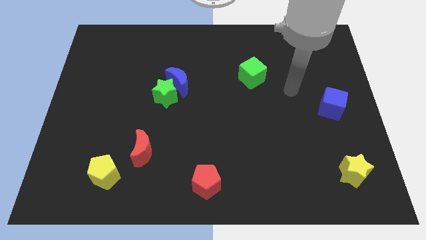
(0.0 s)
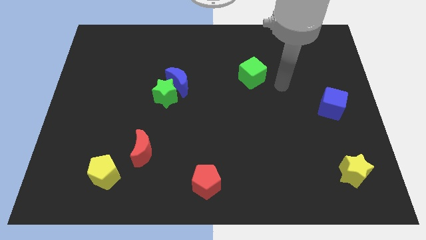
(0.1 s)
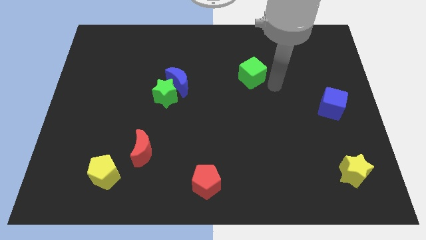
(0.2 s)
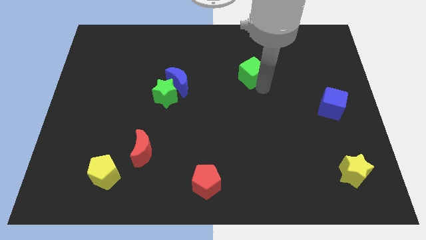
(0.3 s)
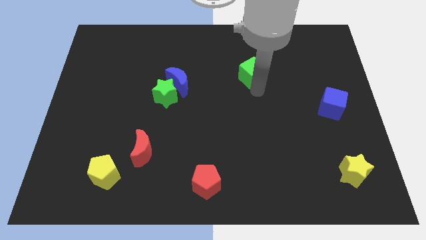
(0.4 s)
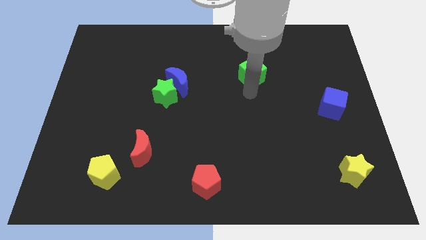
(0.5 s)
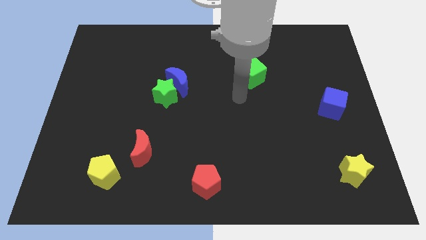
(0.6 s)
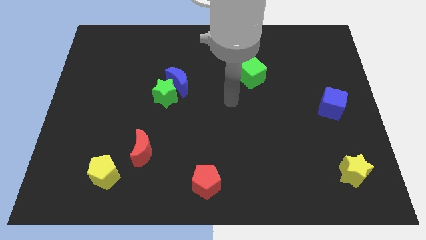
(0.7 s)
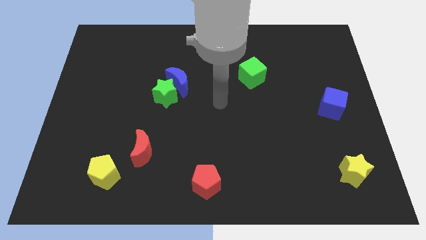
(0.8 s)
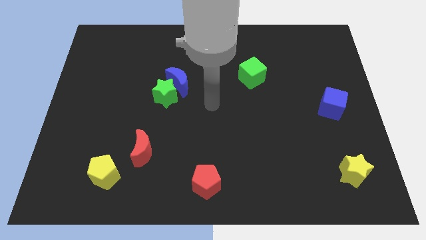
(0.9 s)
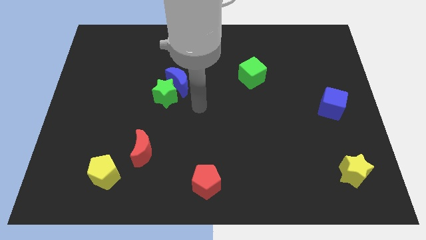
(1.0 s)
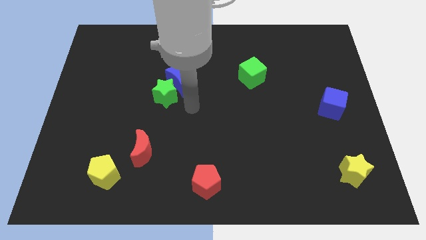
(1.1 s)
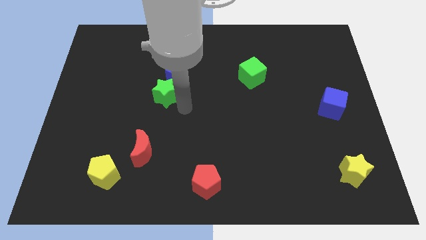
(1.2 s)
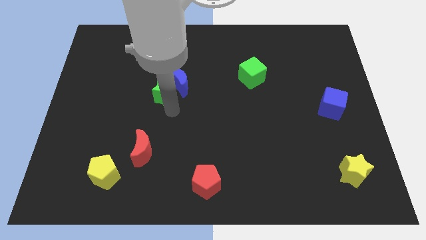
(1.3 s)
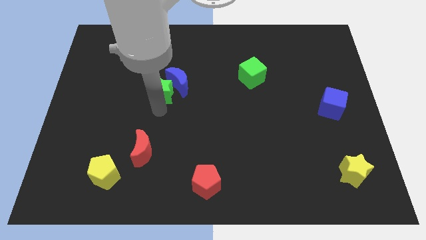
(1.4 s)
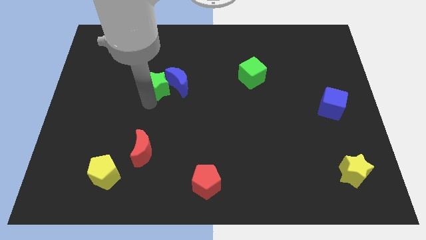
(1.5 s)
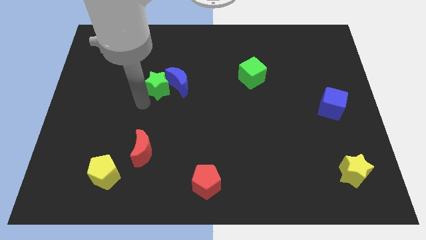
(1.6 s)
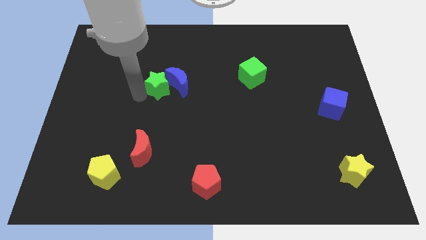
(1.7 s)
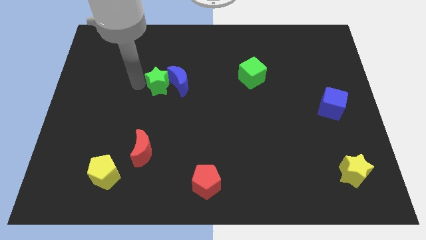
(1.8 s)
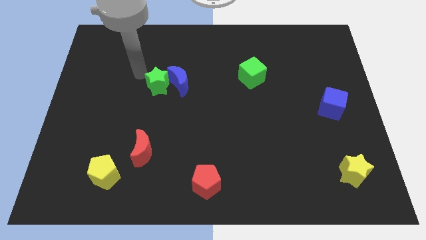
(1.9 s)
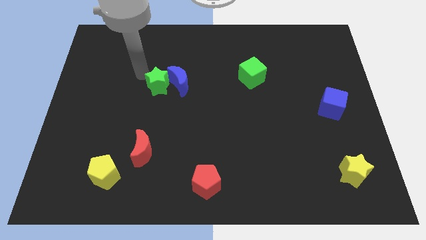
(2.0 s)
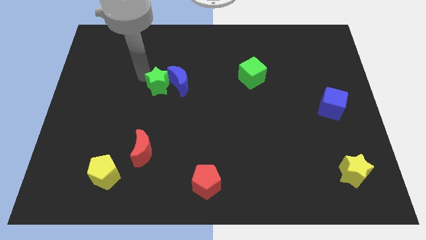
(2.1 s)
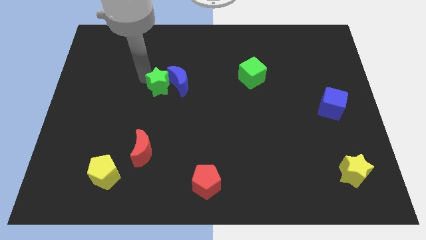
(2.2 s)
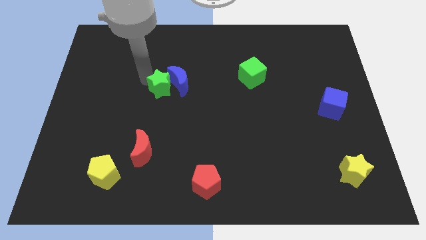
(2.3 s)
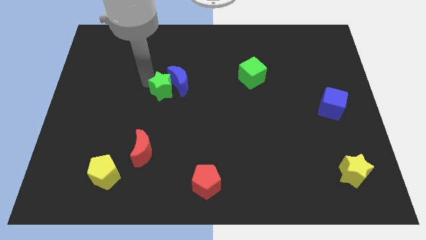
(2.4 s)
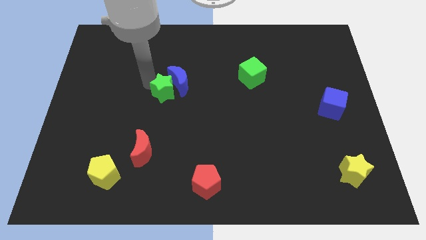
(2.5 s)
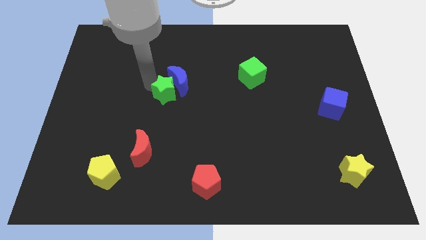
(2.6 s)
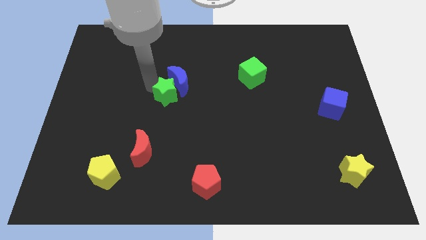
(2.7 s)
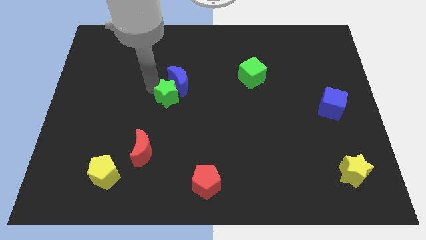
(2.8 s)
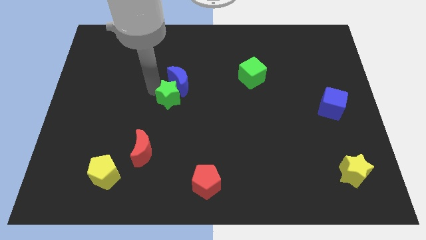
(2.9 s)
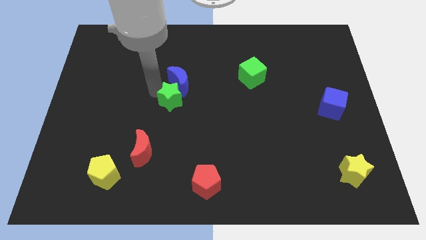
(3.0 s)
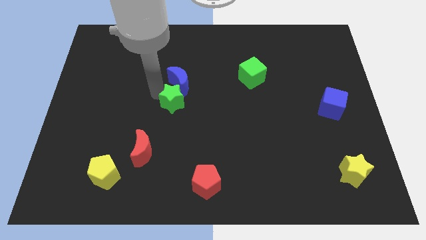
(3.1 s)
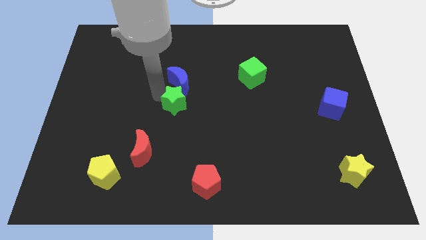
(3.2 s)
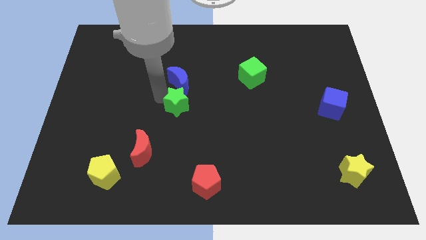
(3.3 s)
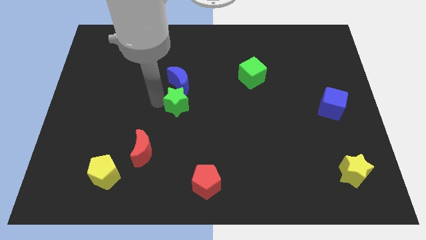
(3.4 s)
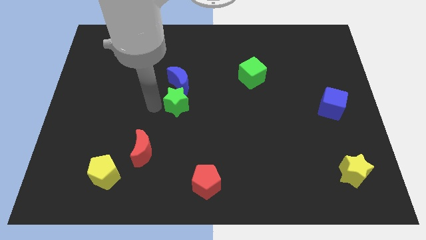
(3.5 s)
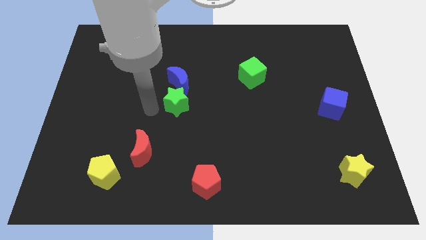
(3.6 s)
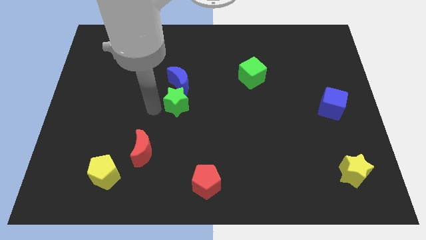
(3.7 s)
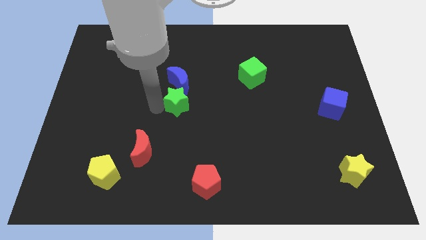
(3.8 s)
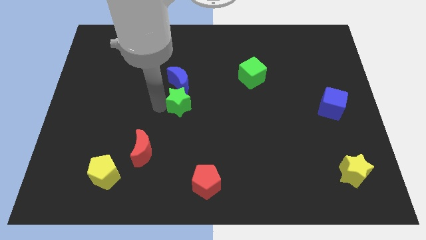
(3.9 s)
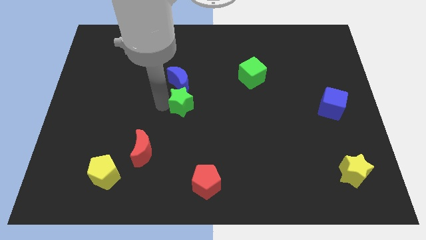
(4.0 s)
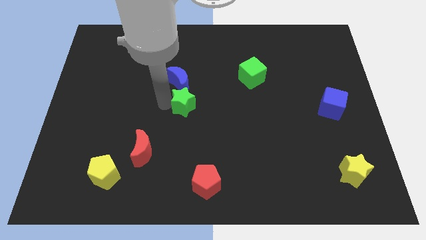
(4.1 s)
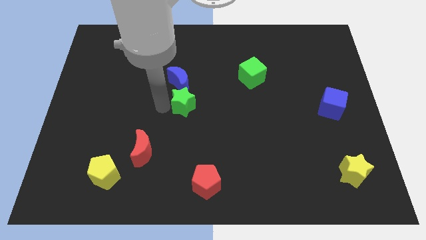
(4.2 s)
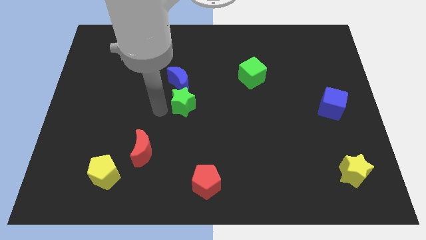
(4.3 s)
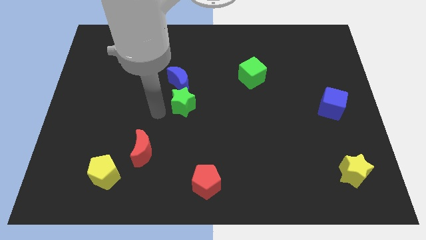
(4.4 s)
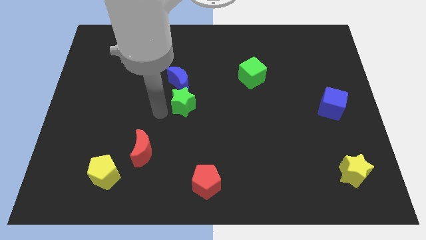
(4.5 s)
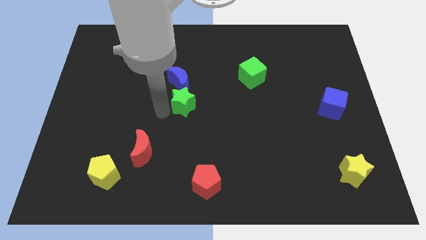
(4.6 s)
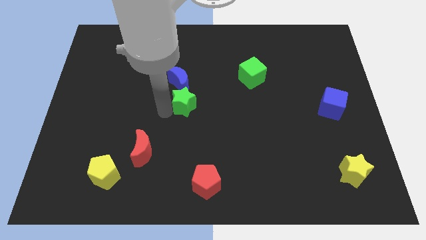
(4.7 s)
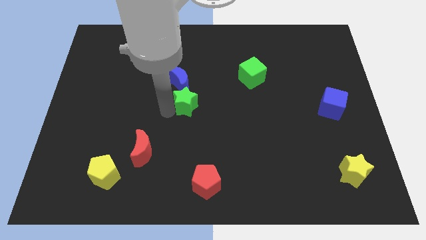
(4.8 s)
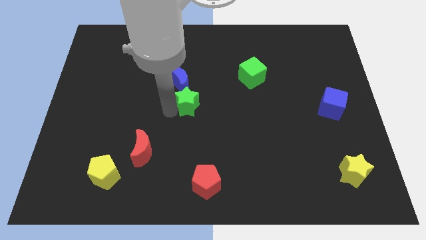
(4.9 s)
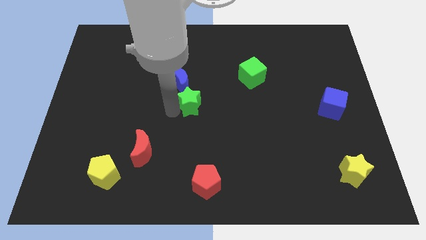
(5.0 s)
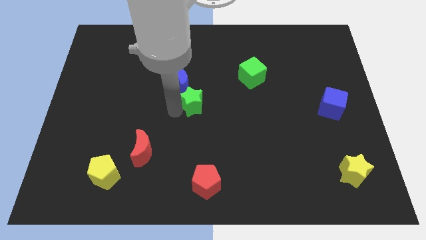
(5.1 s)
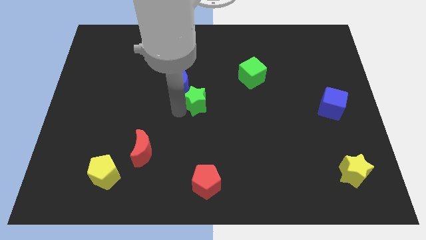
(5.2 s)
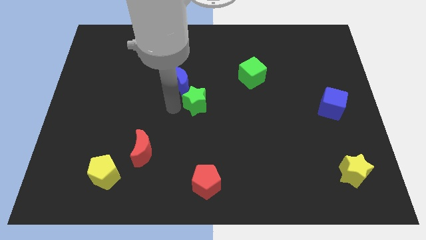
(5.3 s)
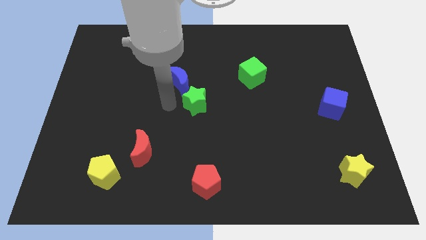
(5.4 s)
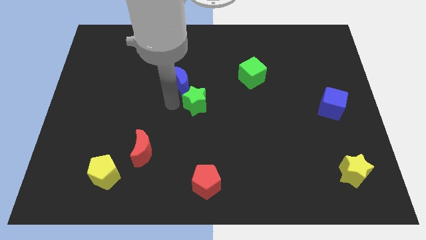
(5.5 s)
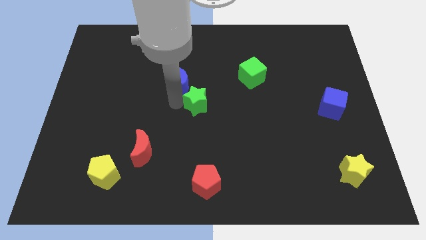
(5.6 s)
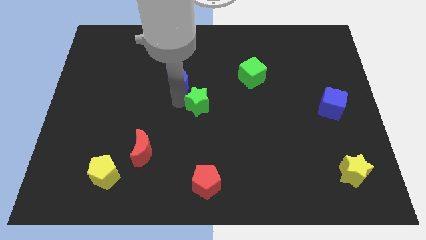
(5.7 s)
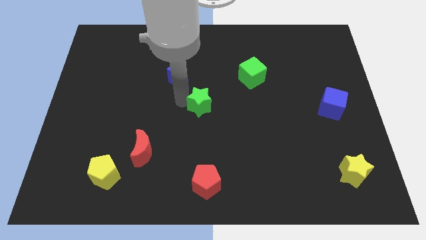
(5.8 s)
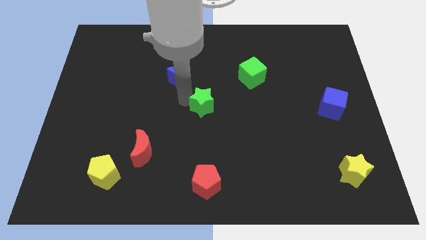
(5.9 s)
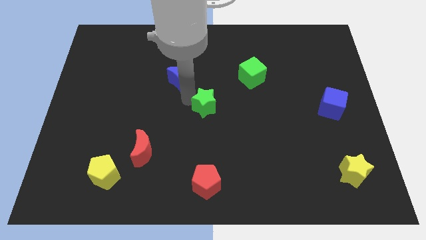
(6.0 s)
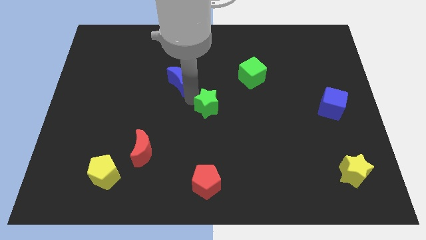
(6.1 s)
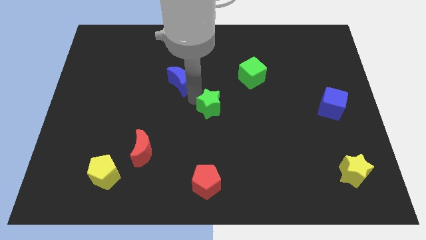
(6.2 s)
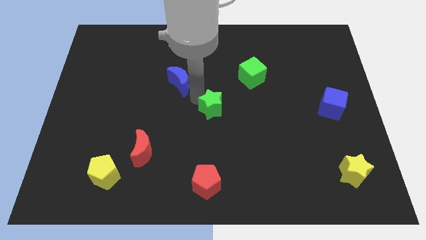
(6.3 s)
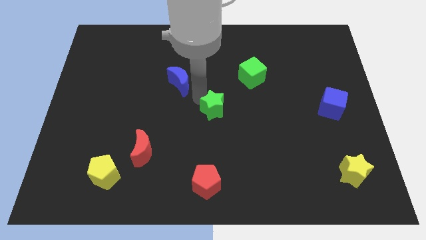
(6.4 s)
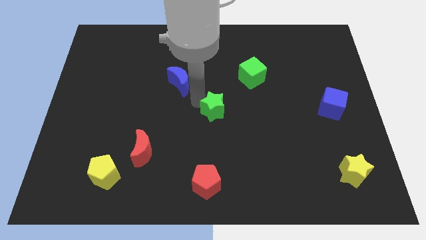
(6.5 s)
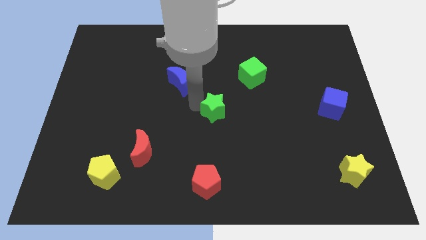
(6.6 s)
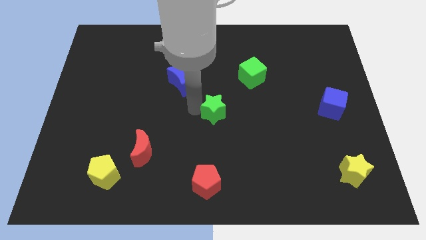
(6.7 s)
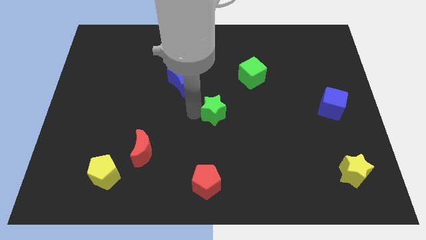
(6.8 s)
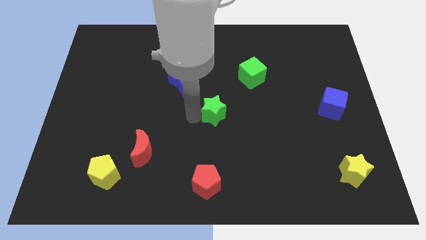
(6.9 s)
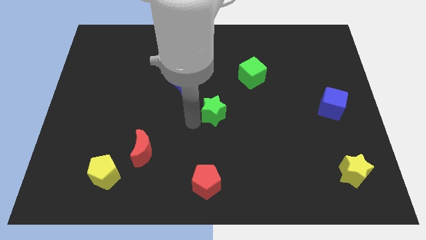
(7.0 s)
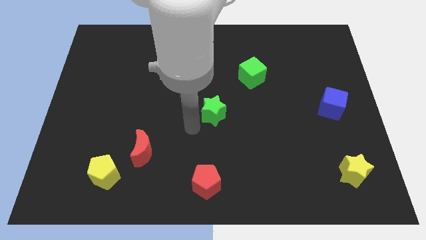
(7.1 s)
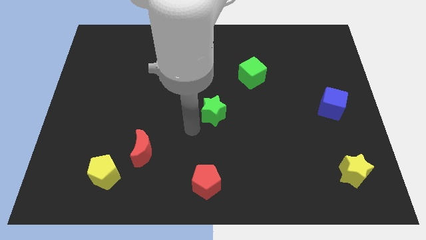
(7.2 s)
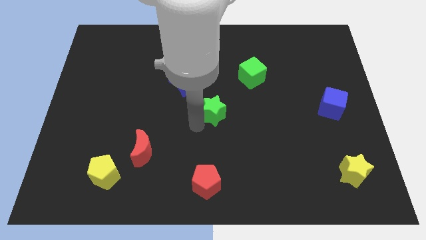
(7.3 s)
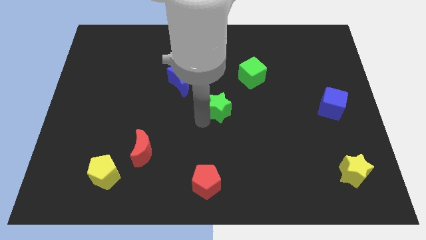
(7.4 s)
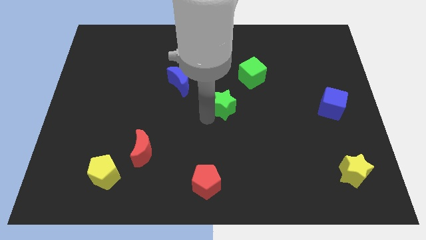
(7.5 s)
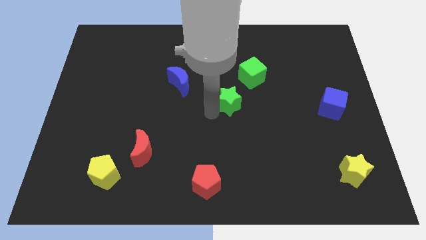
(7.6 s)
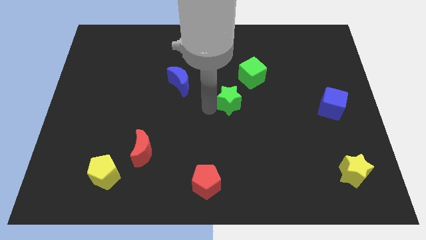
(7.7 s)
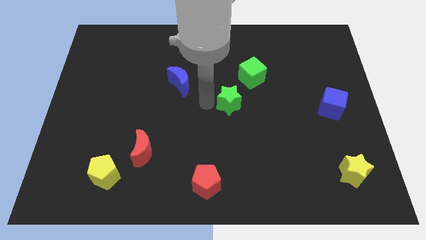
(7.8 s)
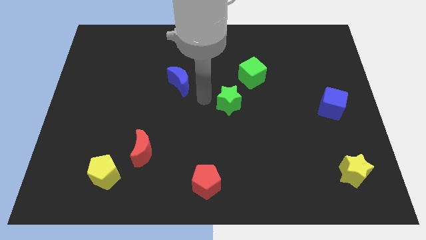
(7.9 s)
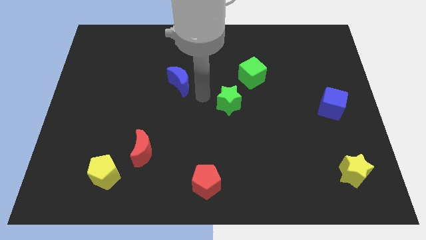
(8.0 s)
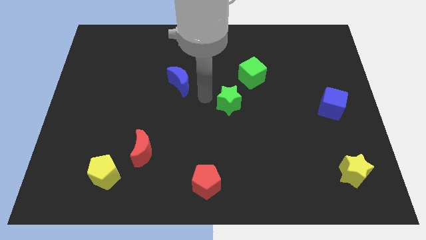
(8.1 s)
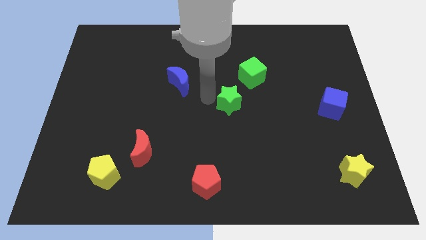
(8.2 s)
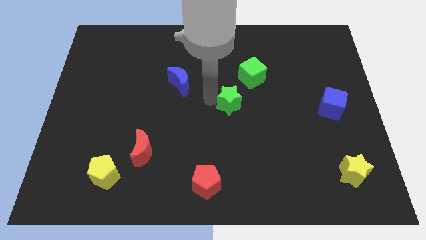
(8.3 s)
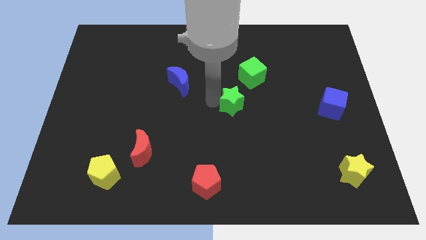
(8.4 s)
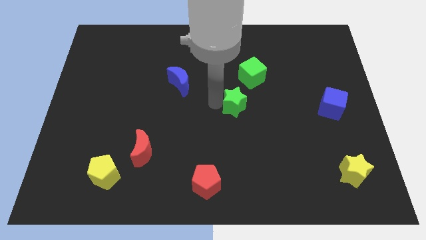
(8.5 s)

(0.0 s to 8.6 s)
slide the green star to the bottom side of the green cube
